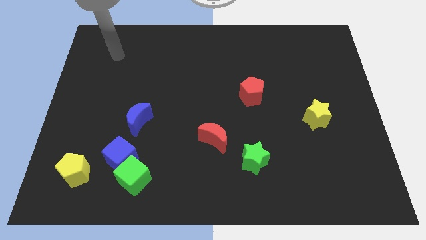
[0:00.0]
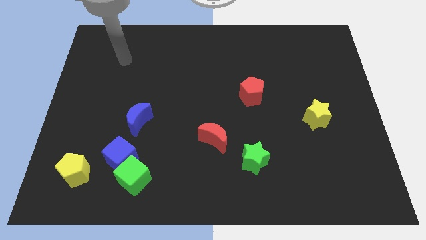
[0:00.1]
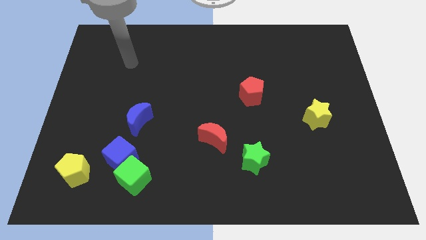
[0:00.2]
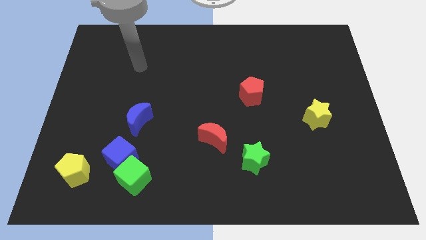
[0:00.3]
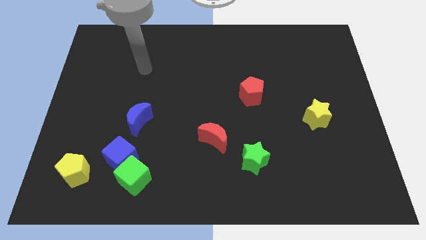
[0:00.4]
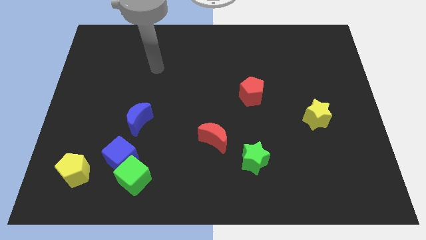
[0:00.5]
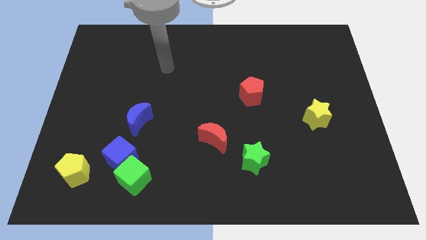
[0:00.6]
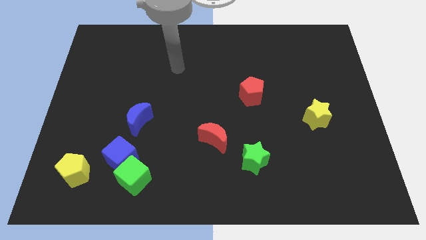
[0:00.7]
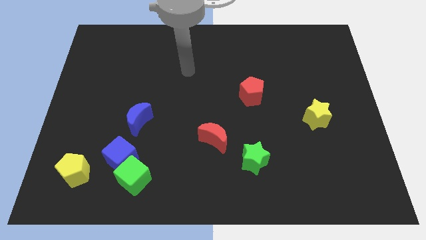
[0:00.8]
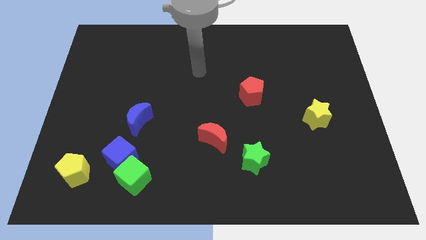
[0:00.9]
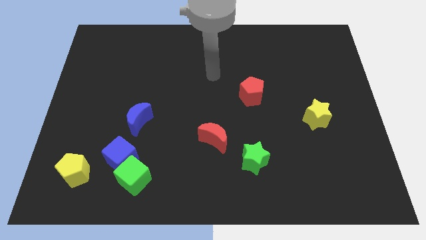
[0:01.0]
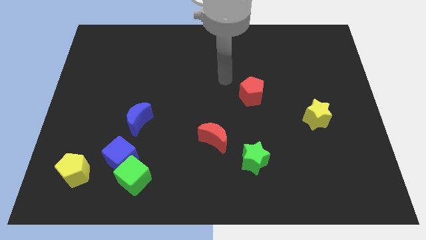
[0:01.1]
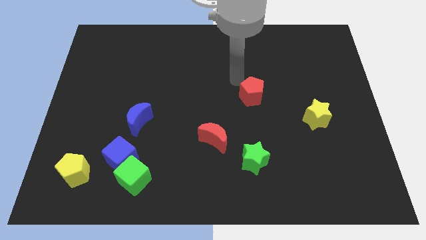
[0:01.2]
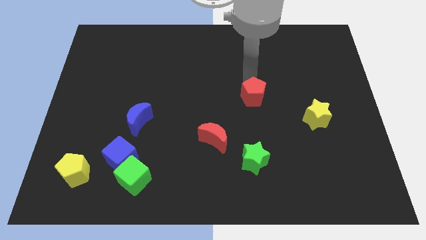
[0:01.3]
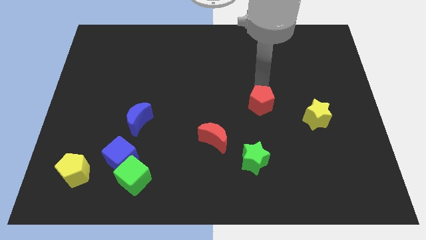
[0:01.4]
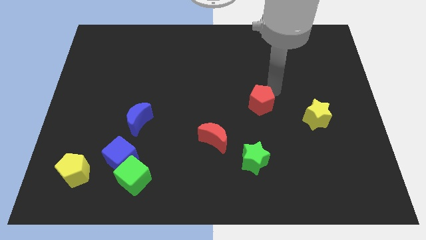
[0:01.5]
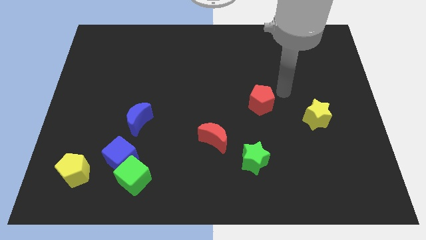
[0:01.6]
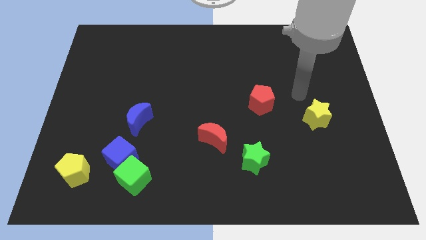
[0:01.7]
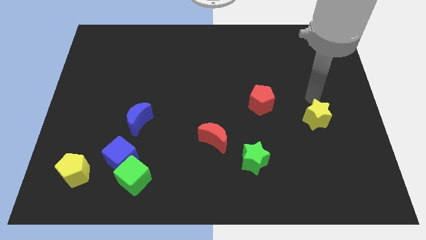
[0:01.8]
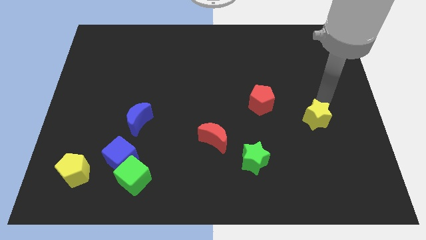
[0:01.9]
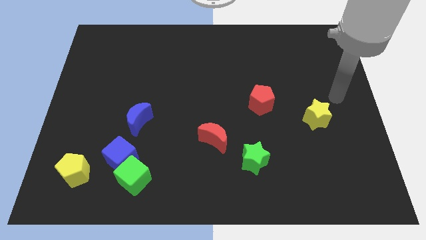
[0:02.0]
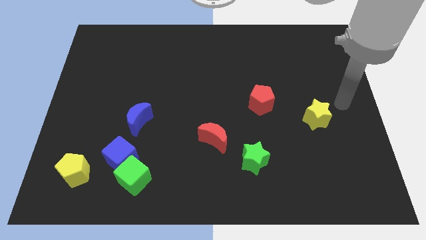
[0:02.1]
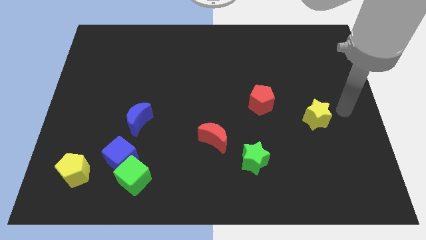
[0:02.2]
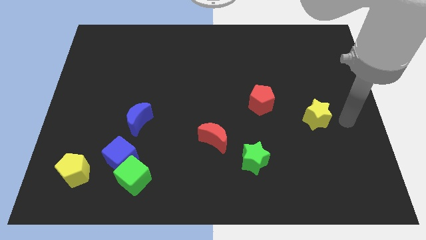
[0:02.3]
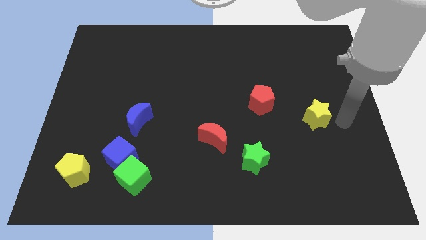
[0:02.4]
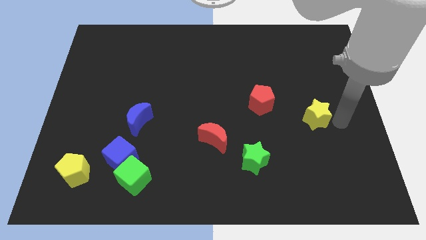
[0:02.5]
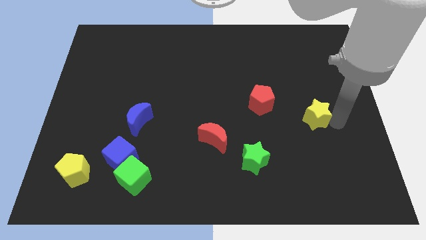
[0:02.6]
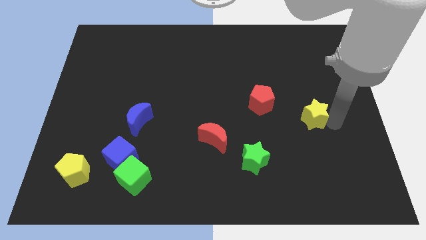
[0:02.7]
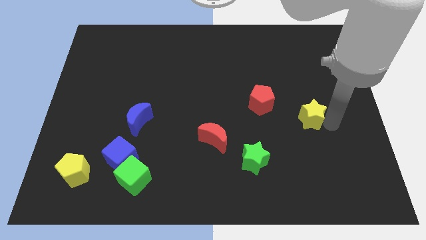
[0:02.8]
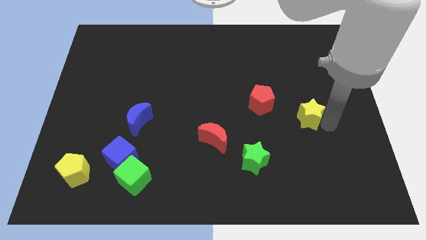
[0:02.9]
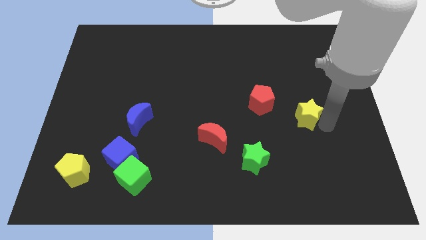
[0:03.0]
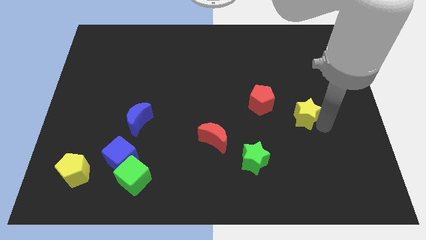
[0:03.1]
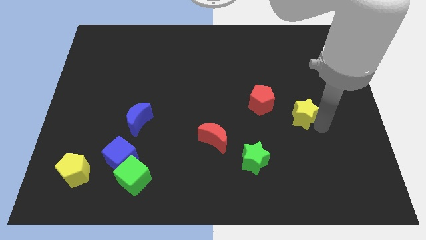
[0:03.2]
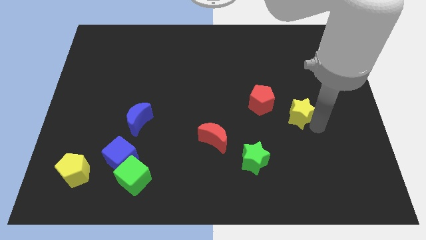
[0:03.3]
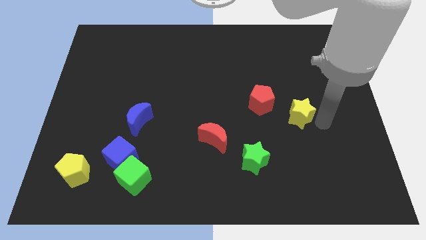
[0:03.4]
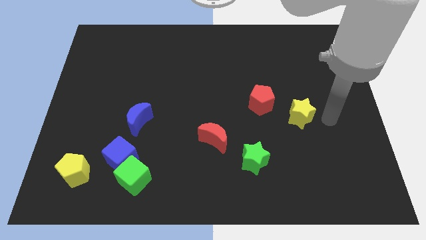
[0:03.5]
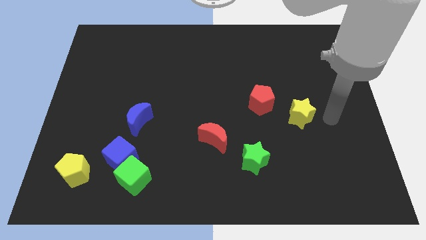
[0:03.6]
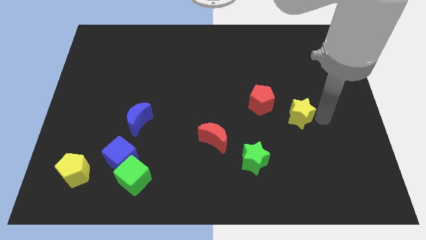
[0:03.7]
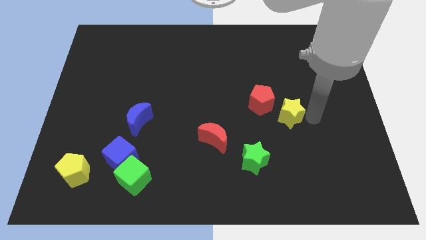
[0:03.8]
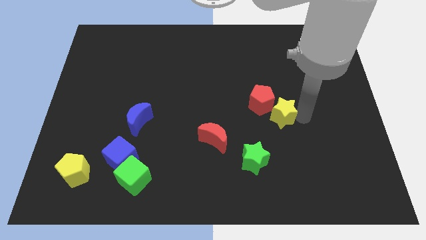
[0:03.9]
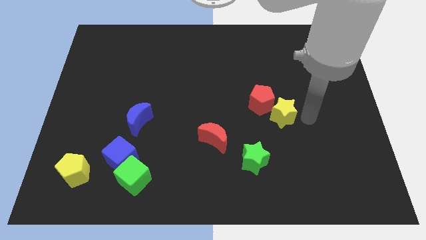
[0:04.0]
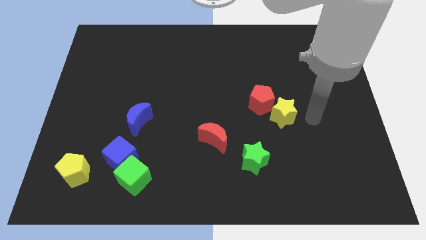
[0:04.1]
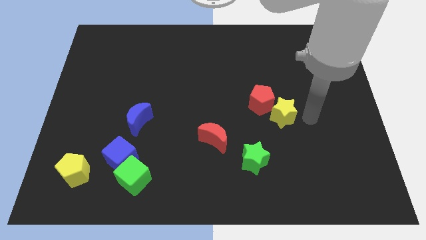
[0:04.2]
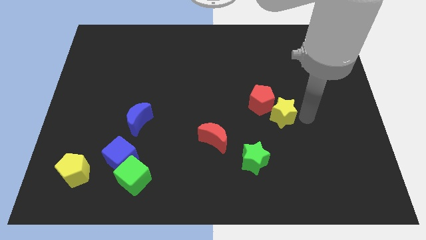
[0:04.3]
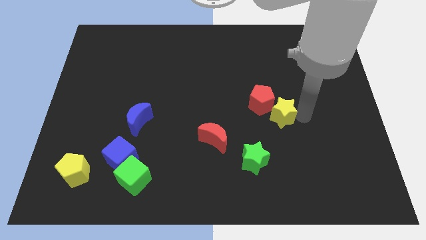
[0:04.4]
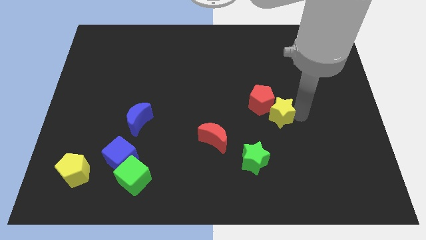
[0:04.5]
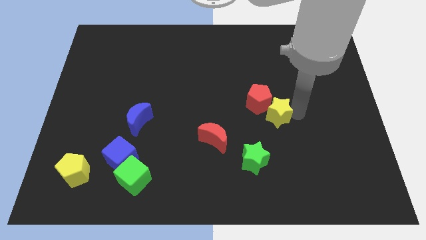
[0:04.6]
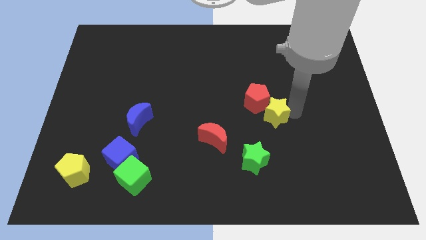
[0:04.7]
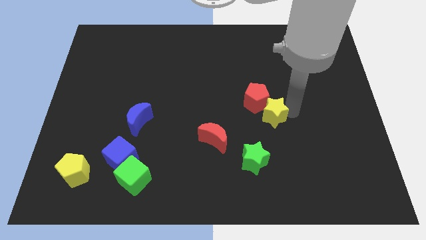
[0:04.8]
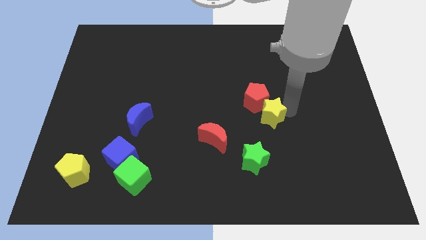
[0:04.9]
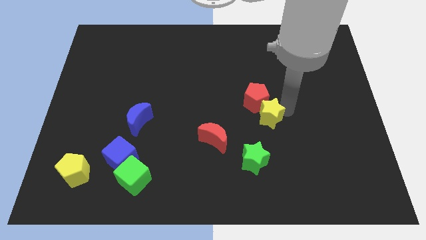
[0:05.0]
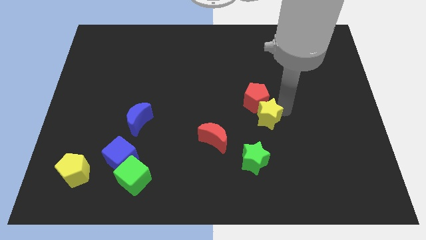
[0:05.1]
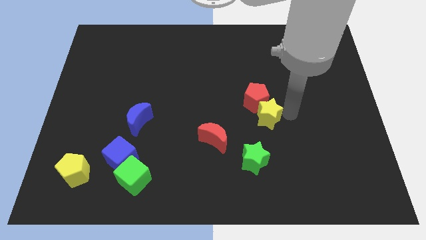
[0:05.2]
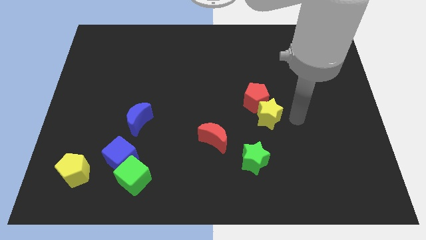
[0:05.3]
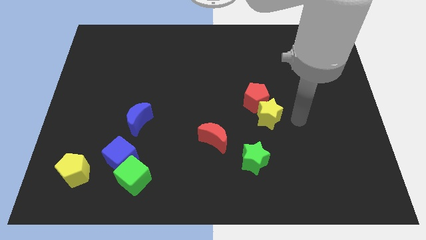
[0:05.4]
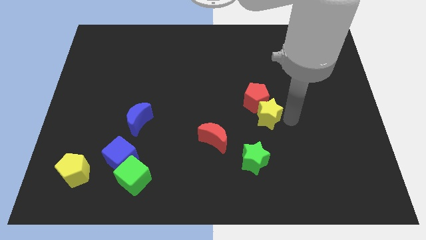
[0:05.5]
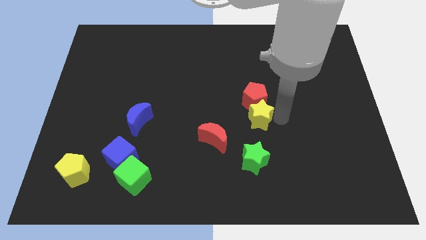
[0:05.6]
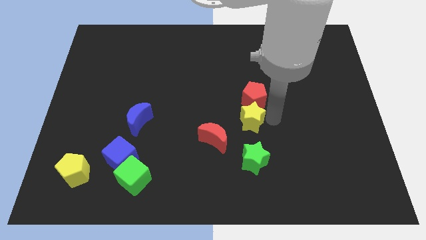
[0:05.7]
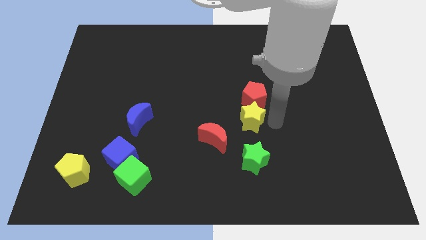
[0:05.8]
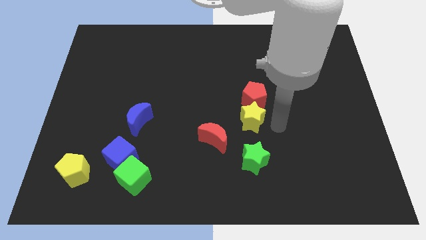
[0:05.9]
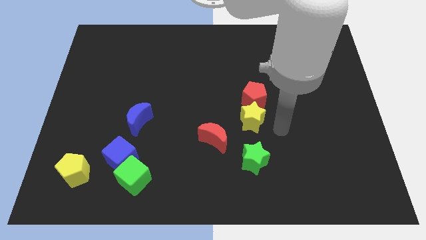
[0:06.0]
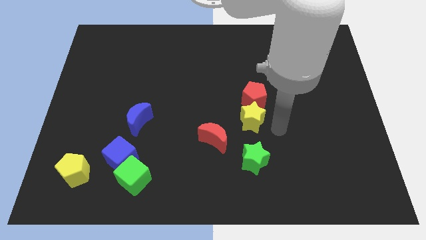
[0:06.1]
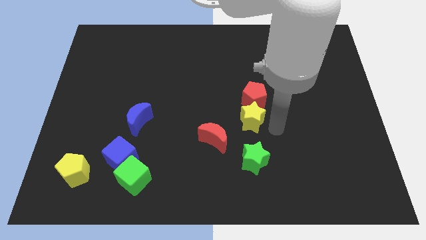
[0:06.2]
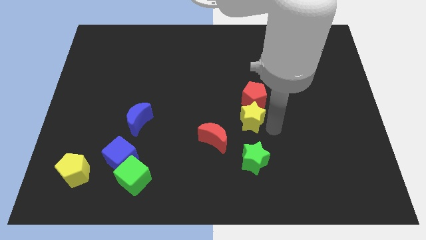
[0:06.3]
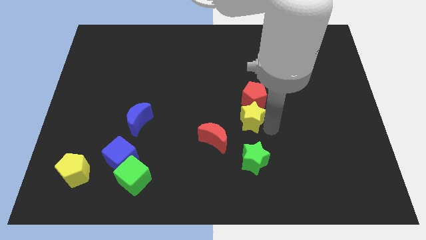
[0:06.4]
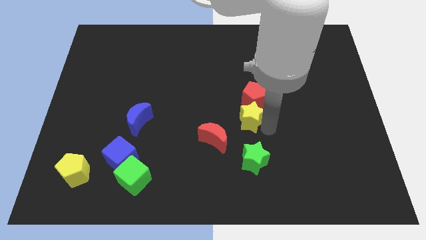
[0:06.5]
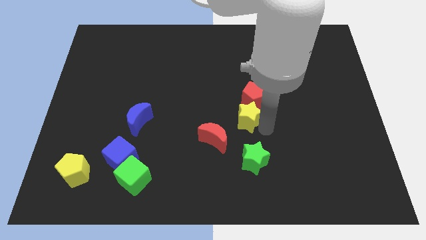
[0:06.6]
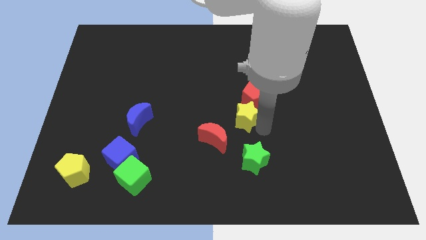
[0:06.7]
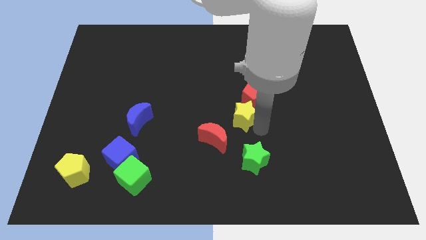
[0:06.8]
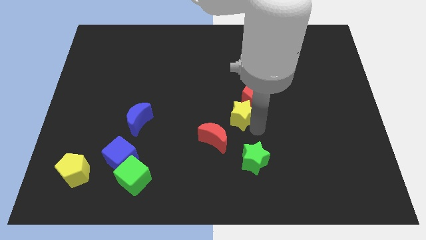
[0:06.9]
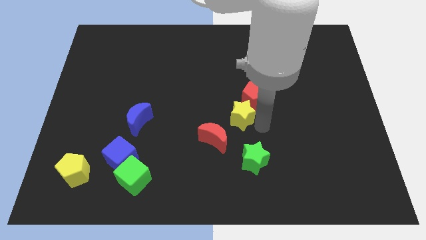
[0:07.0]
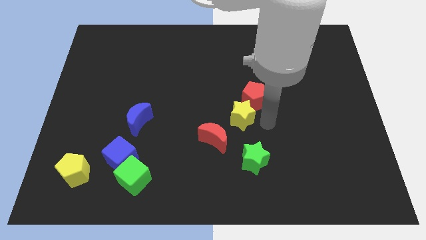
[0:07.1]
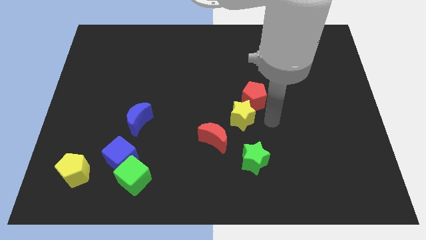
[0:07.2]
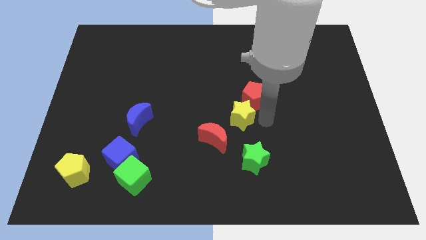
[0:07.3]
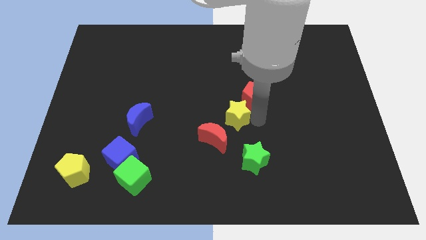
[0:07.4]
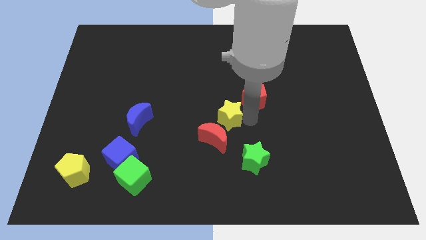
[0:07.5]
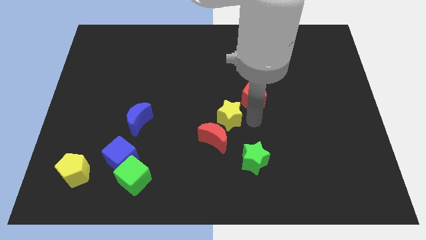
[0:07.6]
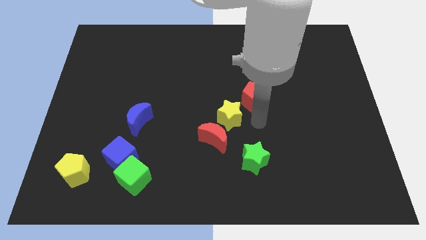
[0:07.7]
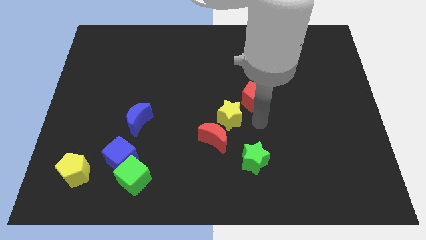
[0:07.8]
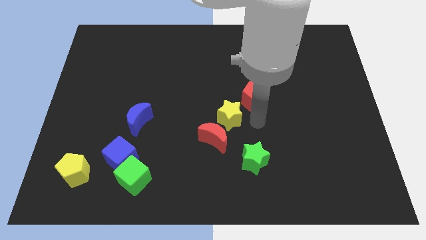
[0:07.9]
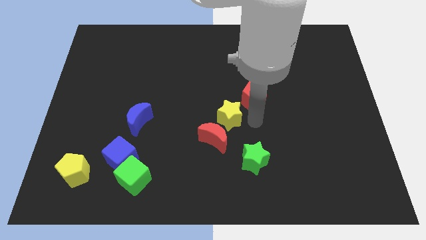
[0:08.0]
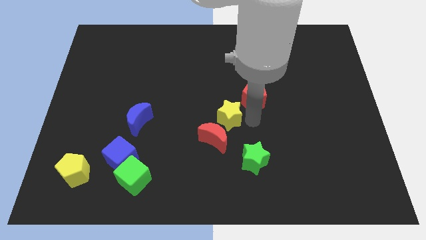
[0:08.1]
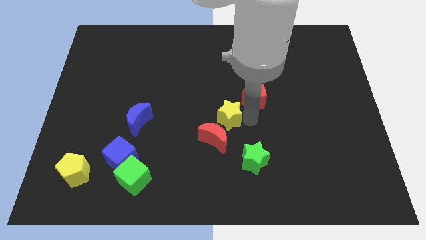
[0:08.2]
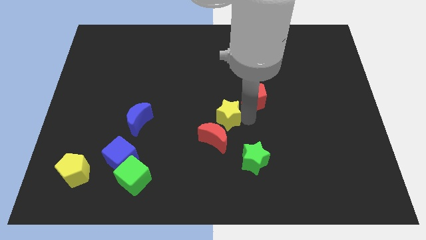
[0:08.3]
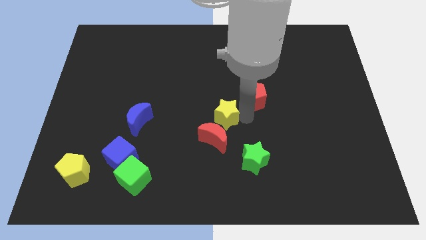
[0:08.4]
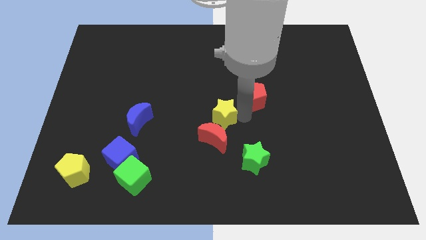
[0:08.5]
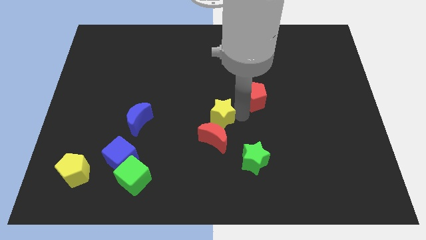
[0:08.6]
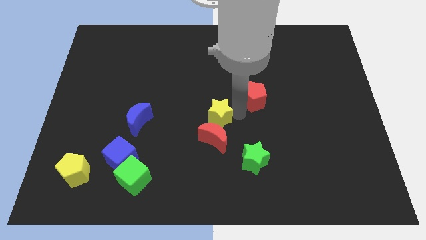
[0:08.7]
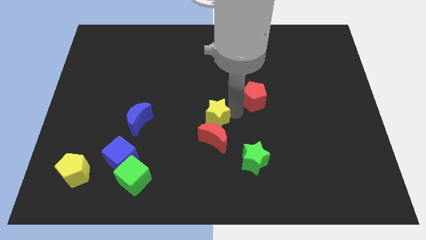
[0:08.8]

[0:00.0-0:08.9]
slide the yellow star to the top left side of the red moon
